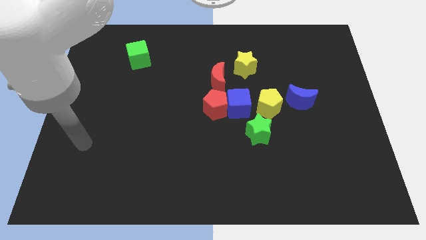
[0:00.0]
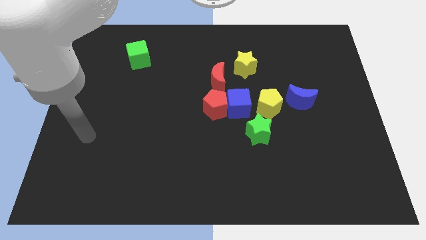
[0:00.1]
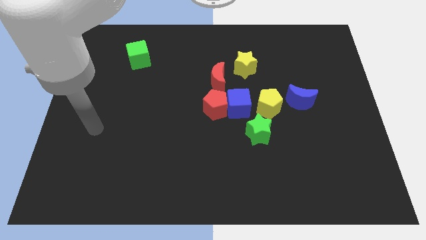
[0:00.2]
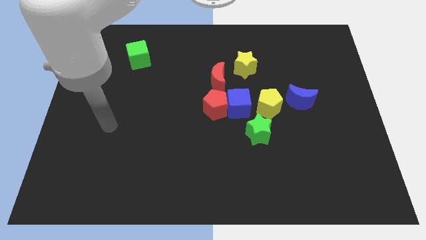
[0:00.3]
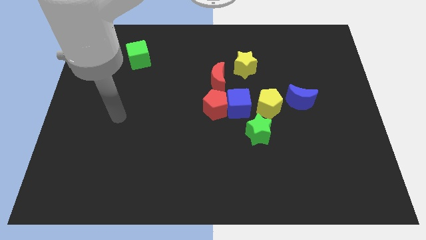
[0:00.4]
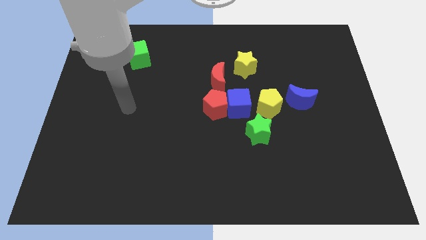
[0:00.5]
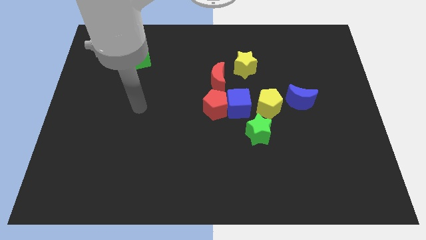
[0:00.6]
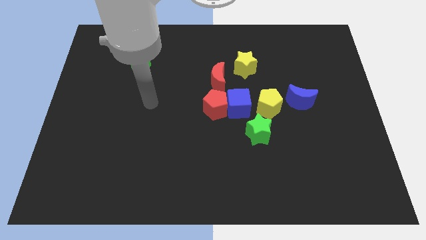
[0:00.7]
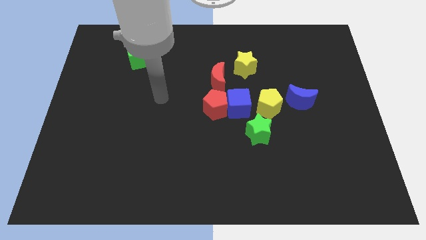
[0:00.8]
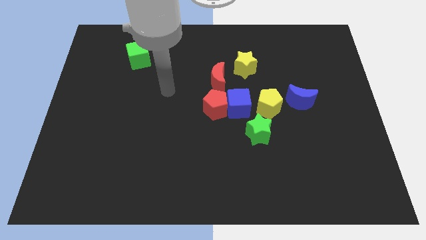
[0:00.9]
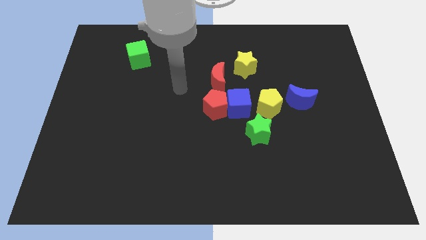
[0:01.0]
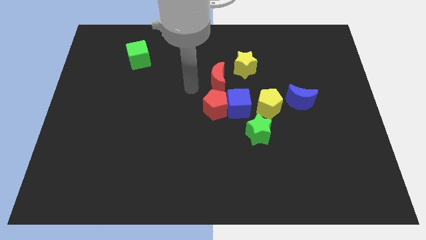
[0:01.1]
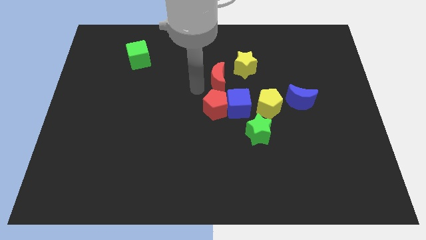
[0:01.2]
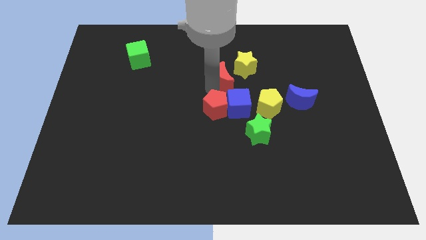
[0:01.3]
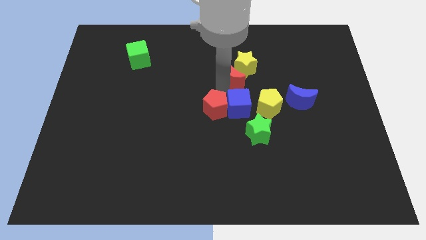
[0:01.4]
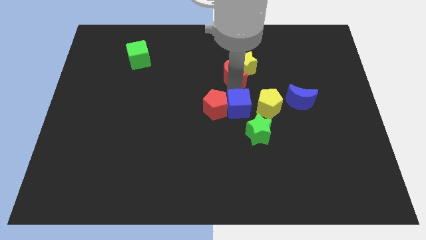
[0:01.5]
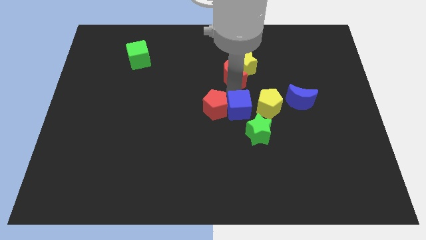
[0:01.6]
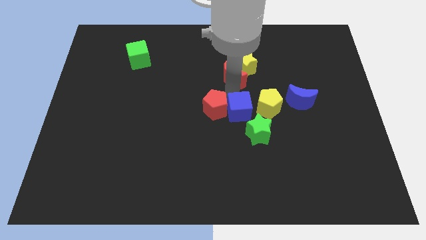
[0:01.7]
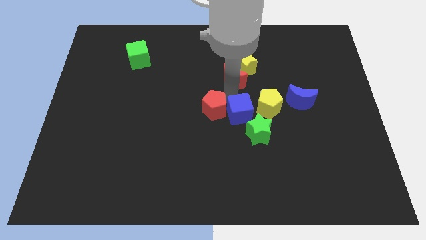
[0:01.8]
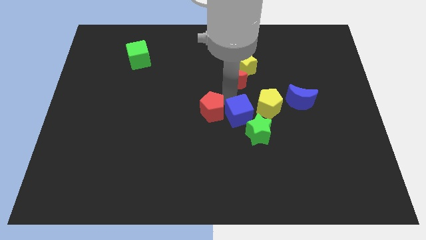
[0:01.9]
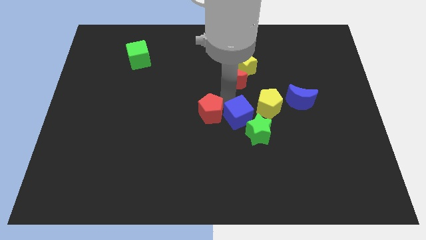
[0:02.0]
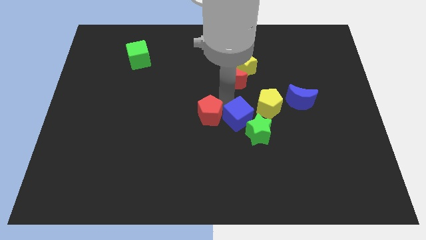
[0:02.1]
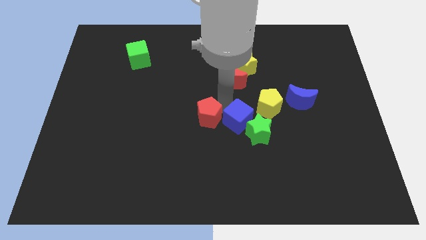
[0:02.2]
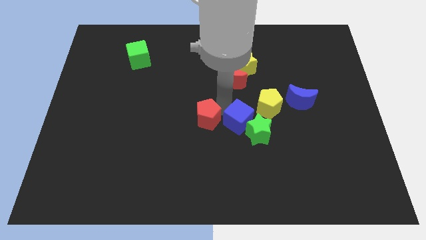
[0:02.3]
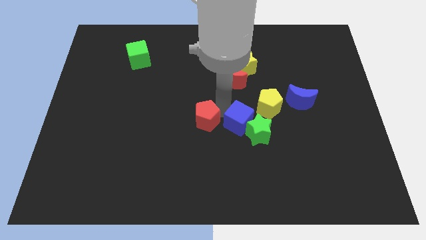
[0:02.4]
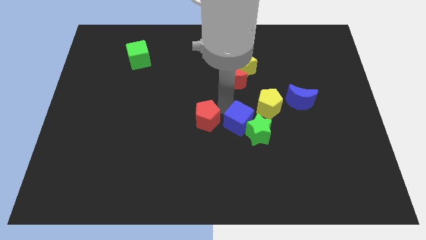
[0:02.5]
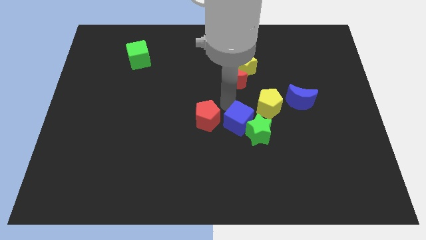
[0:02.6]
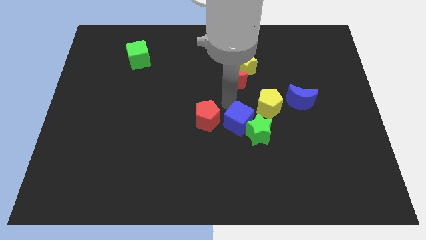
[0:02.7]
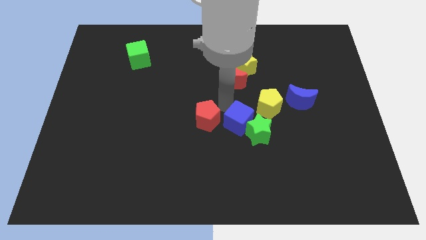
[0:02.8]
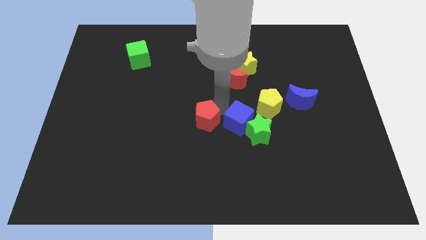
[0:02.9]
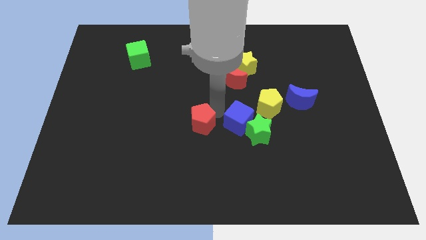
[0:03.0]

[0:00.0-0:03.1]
pull the red pentagon apart from the blue cube and red moon

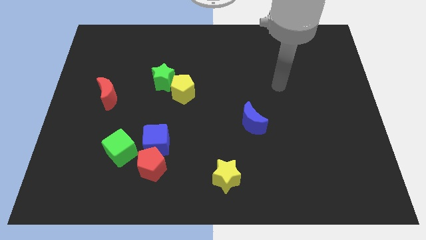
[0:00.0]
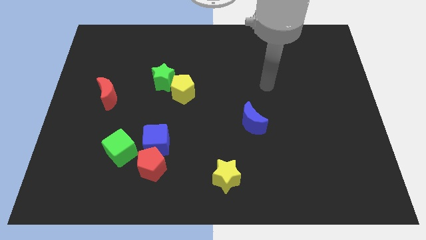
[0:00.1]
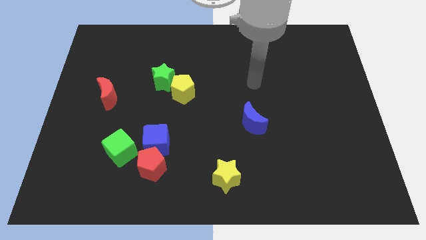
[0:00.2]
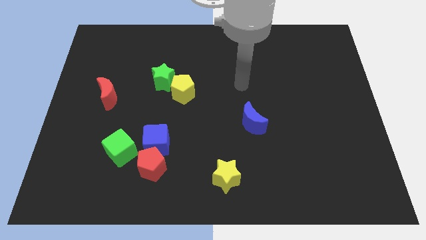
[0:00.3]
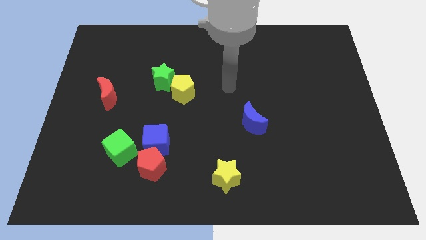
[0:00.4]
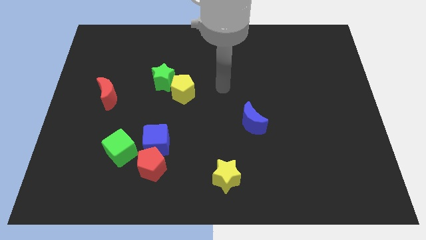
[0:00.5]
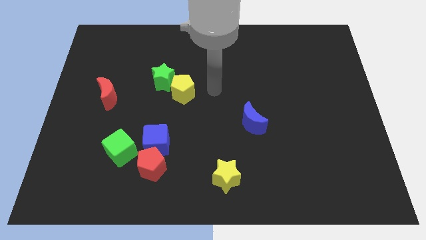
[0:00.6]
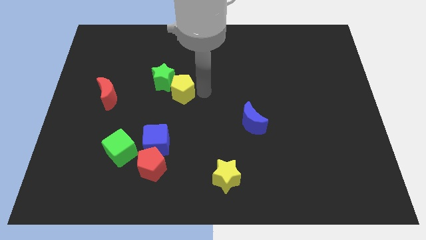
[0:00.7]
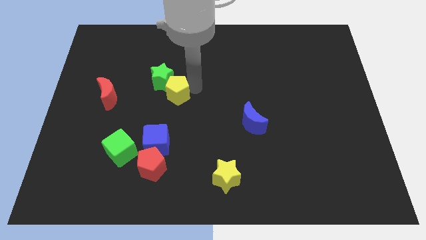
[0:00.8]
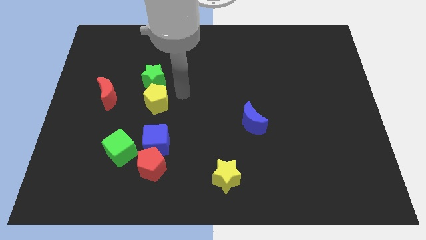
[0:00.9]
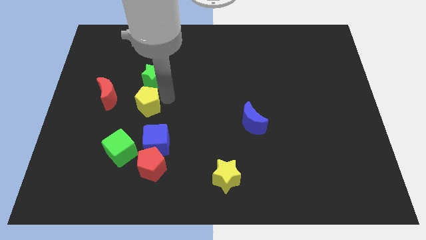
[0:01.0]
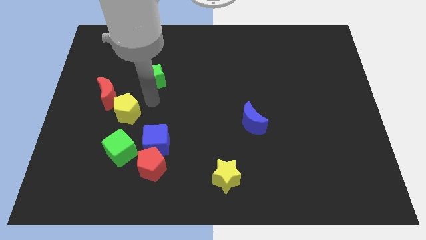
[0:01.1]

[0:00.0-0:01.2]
separate the green star from the yellow pentagon

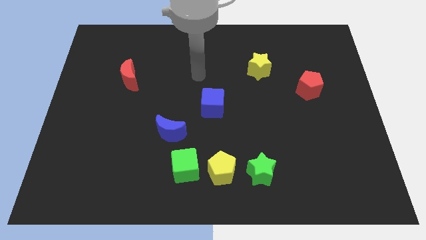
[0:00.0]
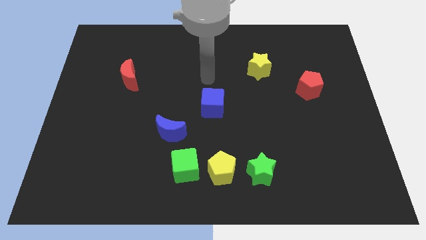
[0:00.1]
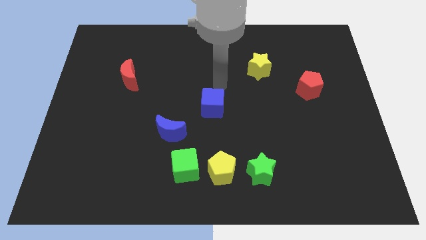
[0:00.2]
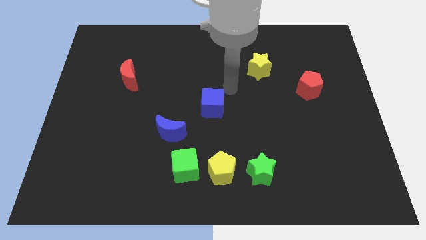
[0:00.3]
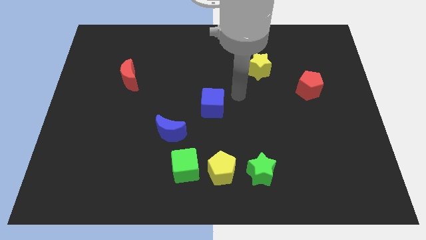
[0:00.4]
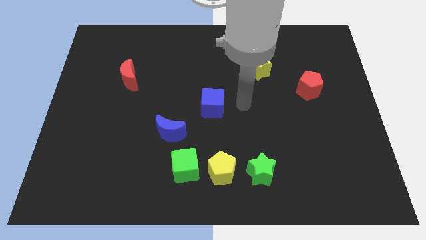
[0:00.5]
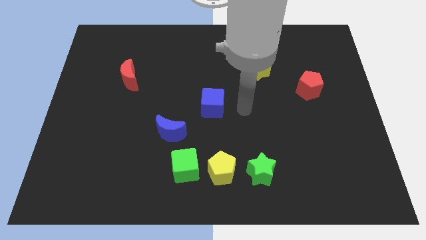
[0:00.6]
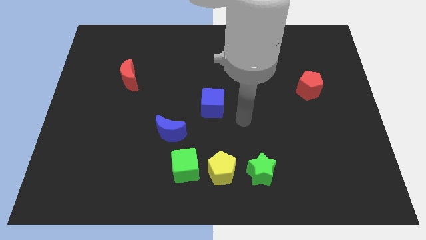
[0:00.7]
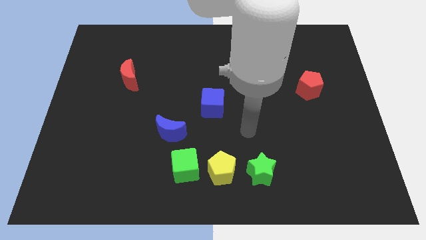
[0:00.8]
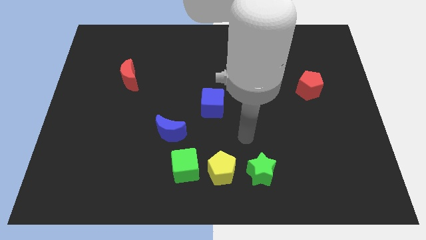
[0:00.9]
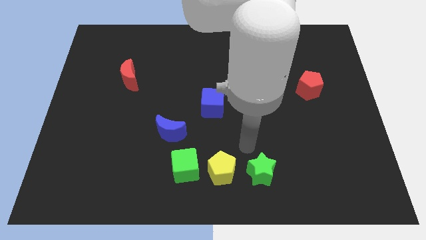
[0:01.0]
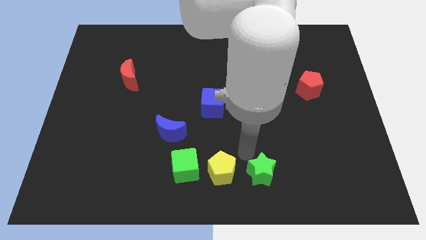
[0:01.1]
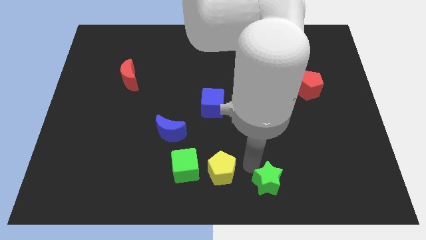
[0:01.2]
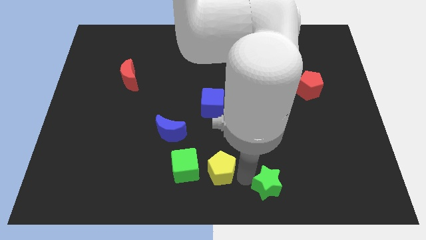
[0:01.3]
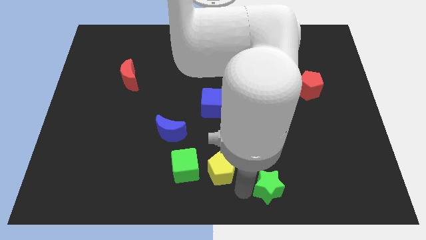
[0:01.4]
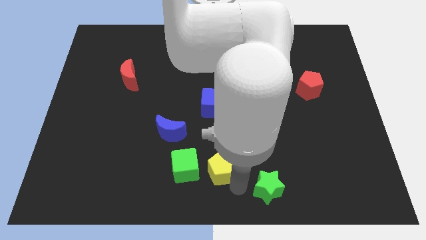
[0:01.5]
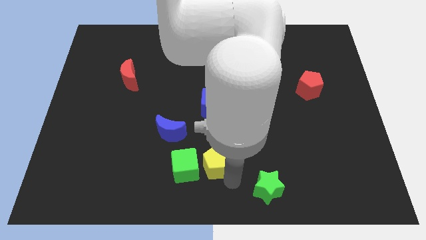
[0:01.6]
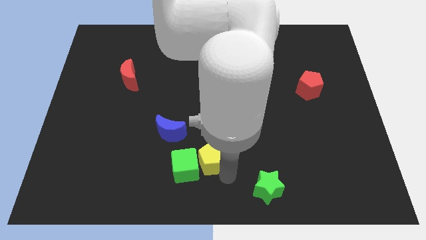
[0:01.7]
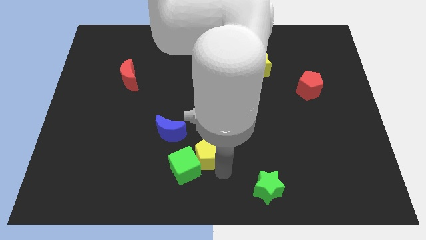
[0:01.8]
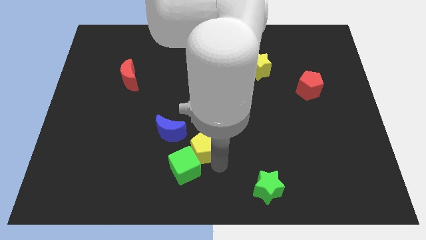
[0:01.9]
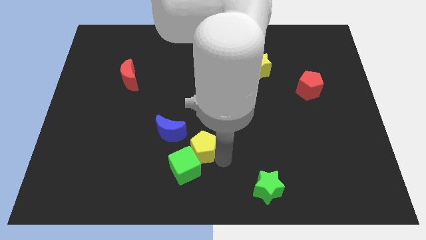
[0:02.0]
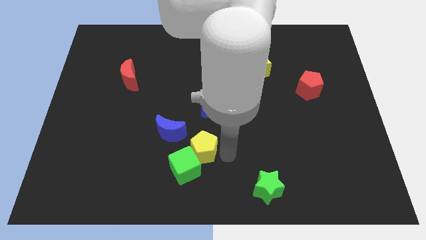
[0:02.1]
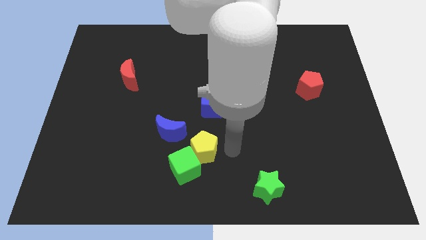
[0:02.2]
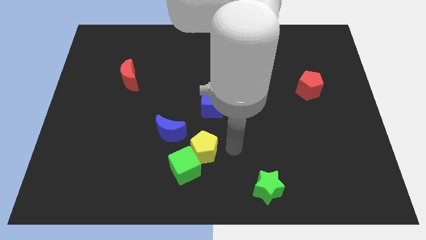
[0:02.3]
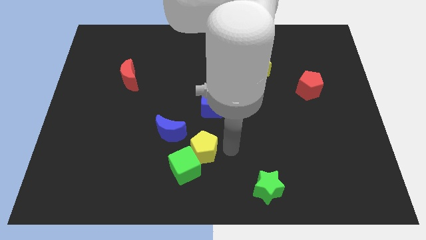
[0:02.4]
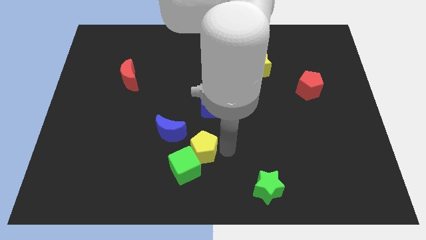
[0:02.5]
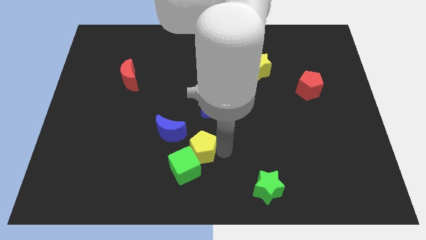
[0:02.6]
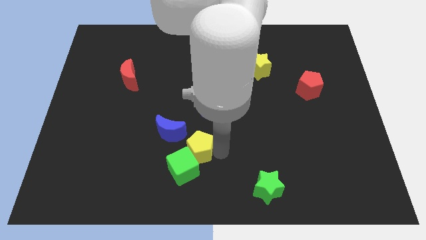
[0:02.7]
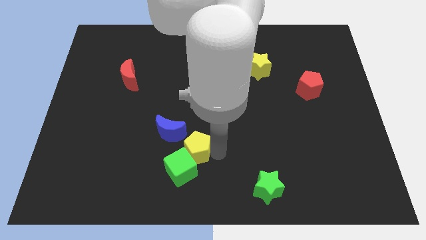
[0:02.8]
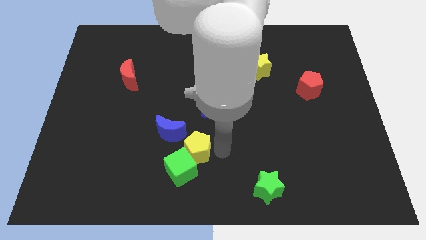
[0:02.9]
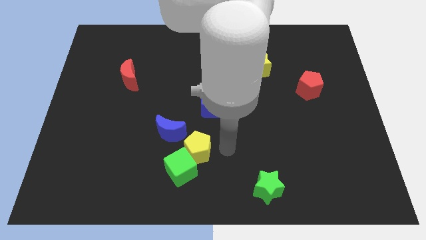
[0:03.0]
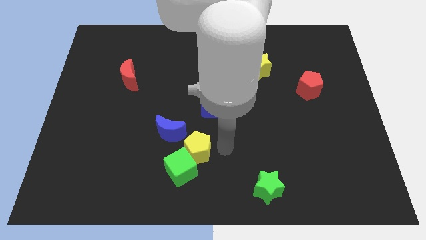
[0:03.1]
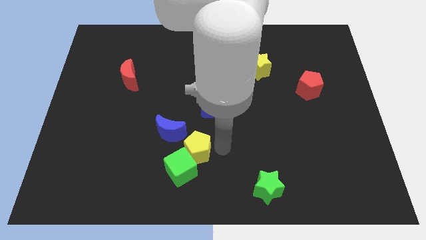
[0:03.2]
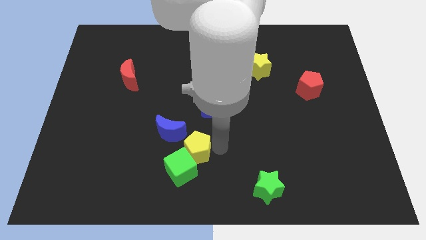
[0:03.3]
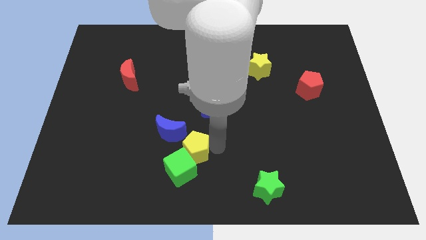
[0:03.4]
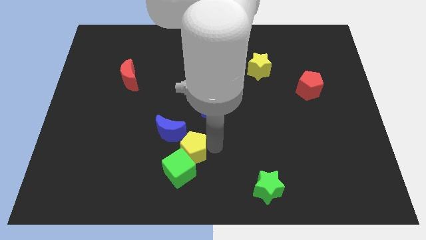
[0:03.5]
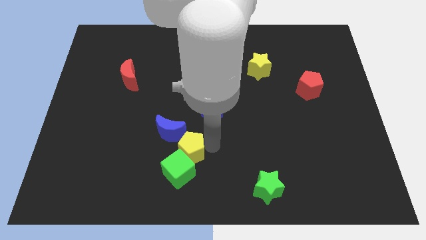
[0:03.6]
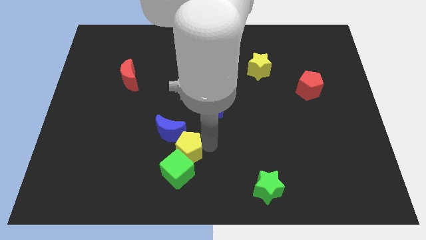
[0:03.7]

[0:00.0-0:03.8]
pull the yellow pentagon apart from the green cube and green star

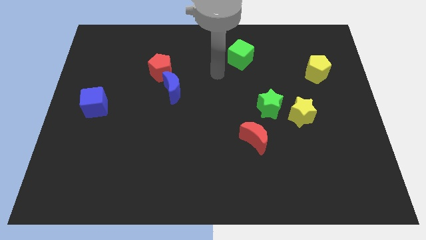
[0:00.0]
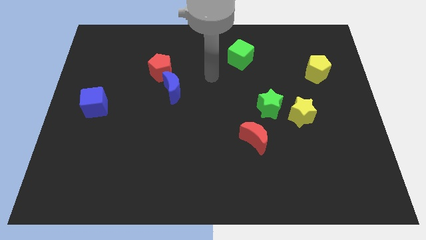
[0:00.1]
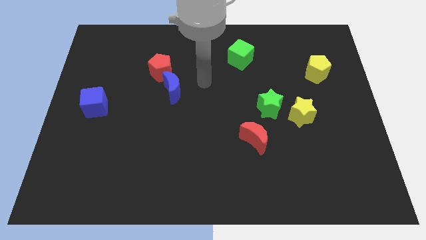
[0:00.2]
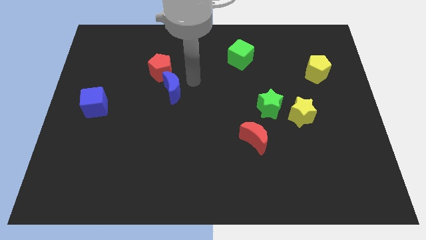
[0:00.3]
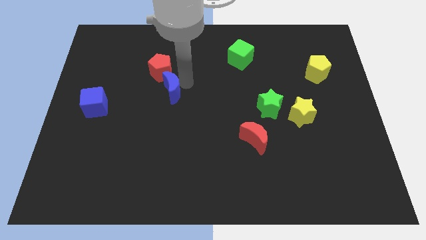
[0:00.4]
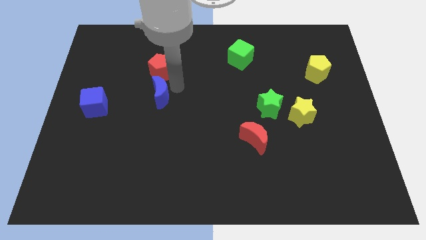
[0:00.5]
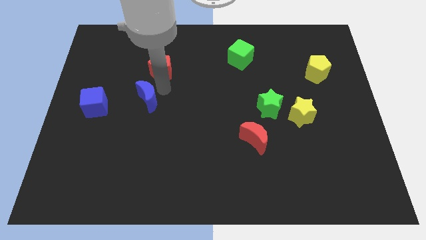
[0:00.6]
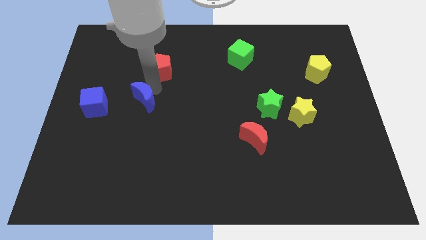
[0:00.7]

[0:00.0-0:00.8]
separate the red pentagon from the blue moon

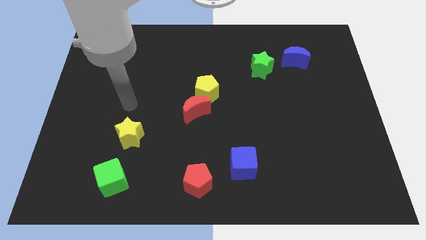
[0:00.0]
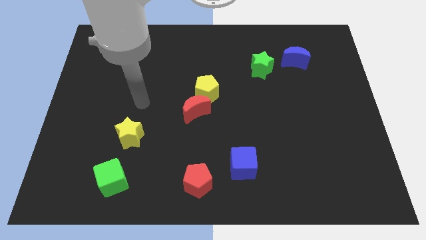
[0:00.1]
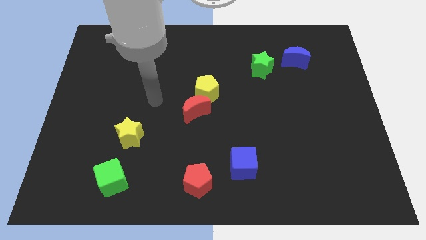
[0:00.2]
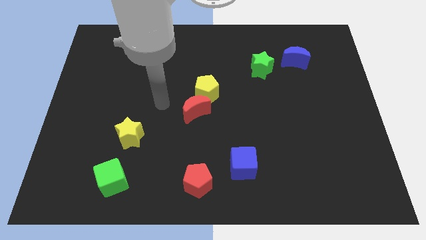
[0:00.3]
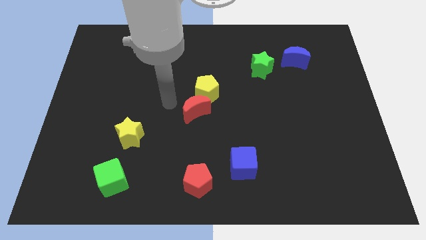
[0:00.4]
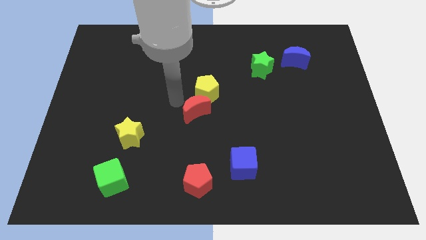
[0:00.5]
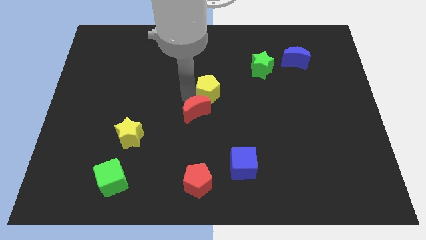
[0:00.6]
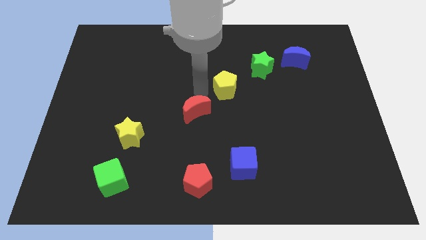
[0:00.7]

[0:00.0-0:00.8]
pull the red moon apart from the yellow pentagon
